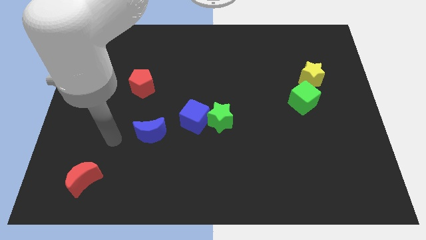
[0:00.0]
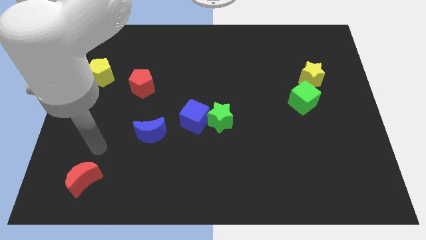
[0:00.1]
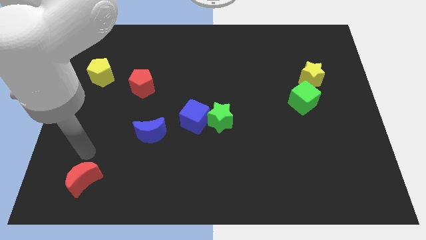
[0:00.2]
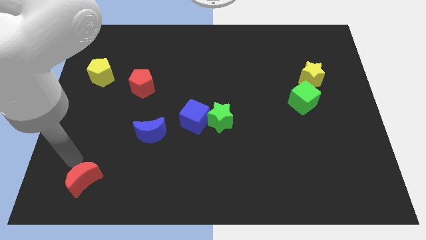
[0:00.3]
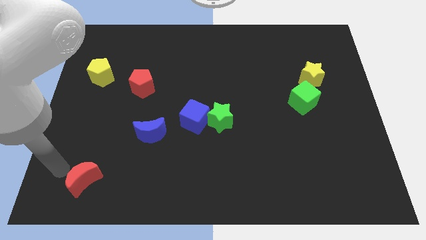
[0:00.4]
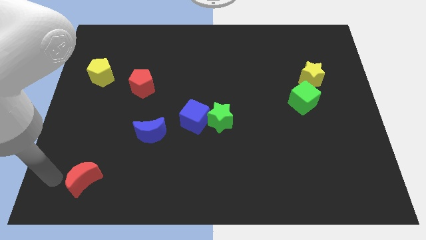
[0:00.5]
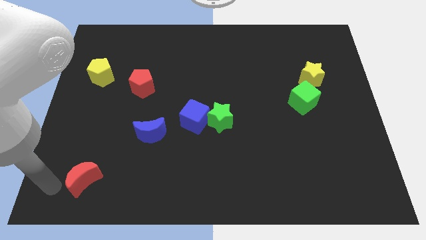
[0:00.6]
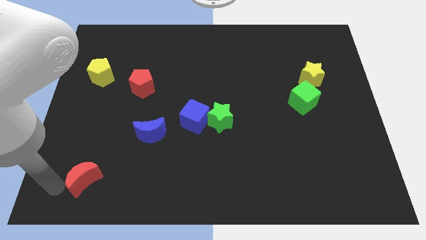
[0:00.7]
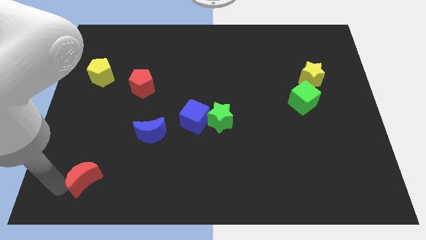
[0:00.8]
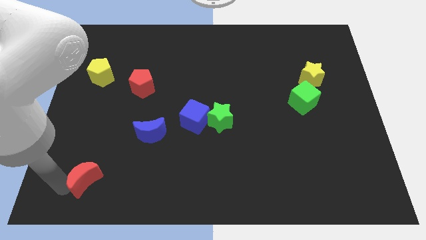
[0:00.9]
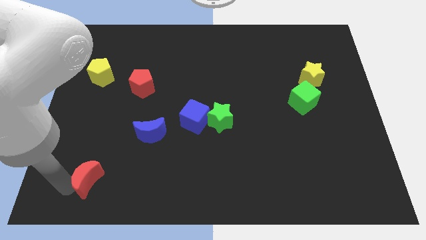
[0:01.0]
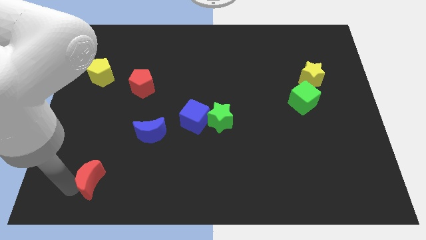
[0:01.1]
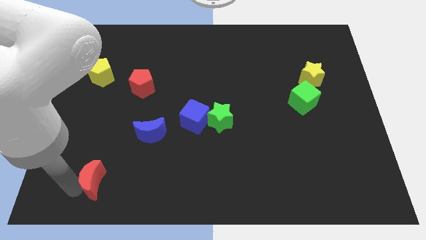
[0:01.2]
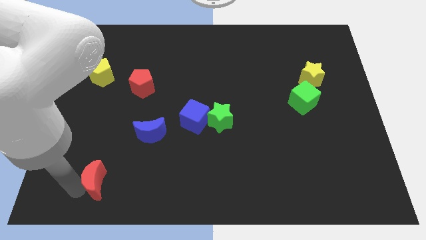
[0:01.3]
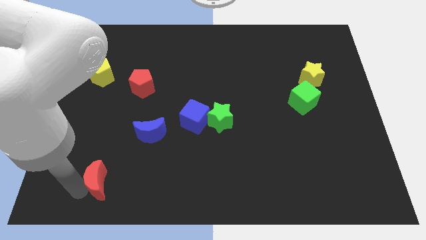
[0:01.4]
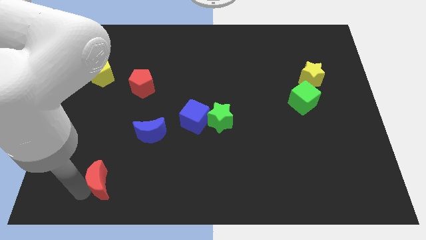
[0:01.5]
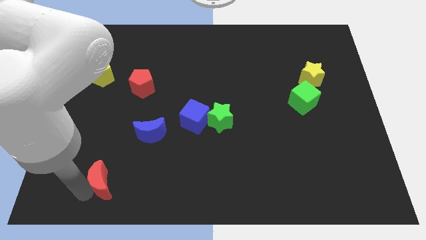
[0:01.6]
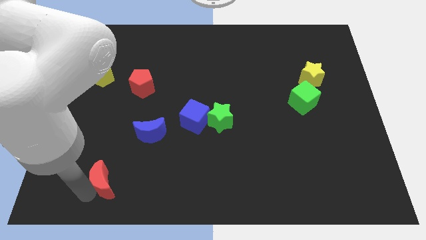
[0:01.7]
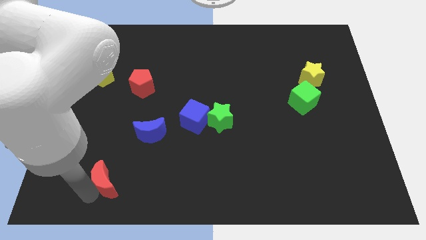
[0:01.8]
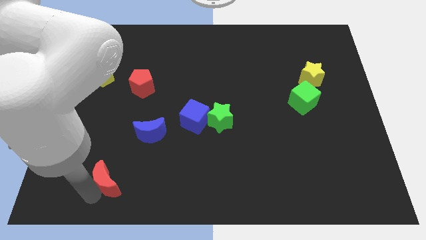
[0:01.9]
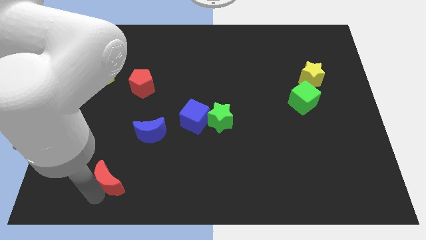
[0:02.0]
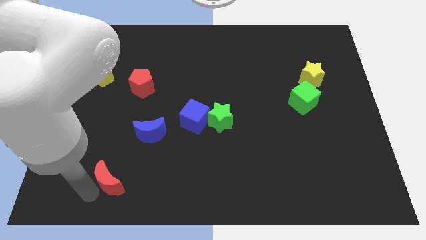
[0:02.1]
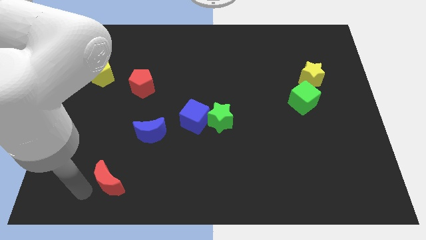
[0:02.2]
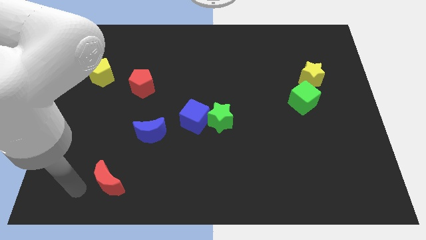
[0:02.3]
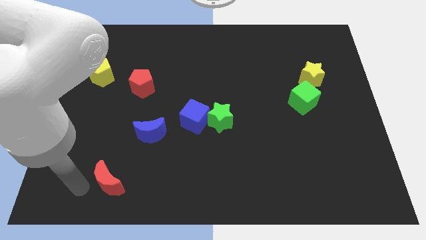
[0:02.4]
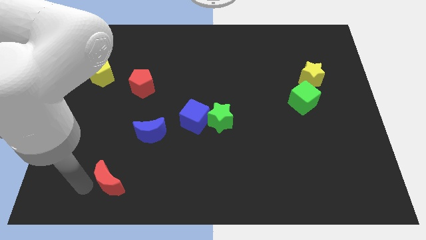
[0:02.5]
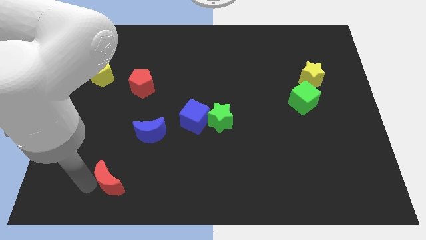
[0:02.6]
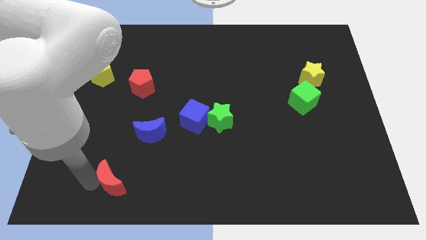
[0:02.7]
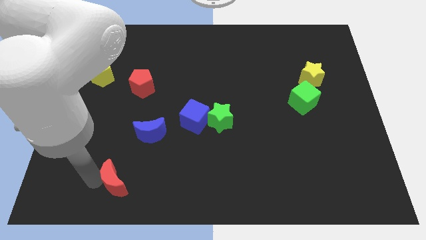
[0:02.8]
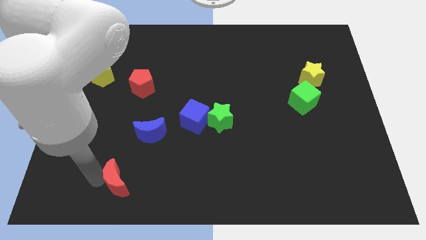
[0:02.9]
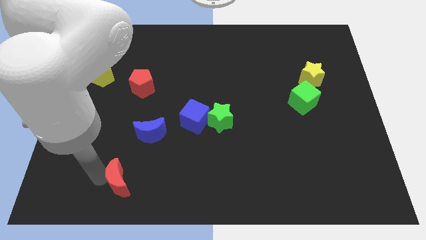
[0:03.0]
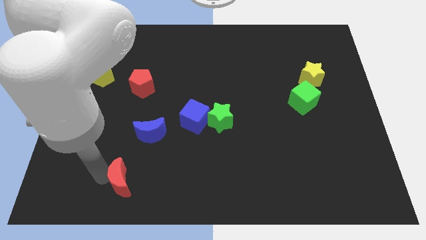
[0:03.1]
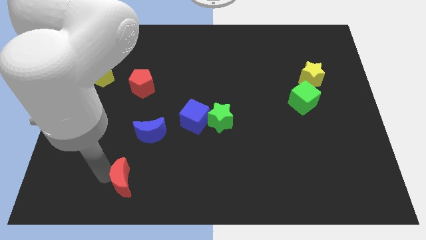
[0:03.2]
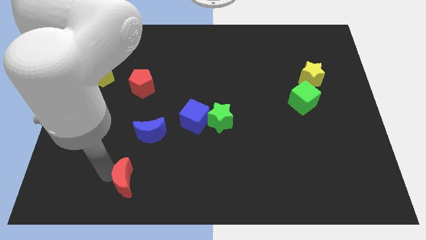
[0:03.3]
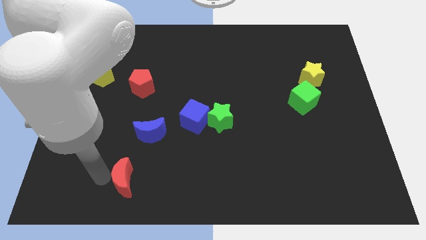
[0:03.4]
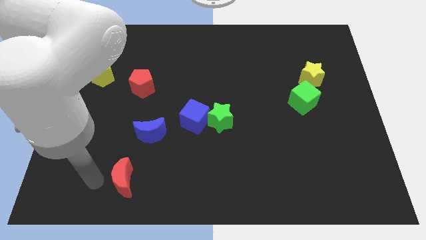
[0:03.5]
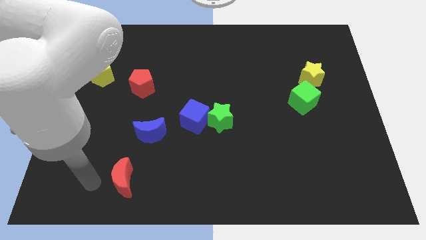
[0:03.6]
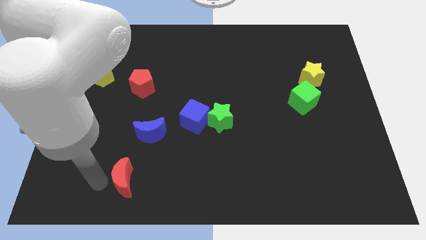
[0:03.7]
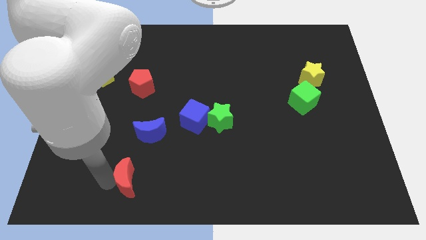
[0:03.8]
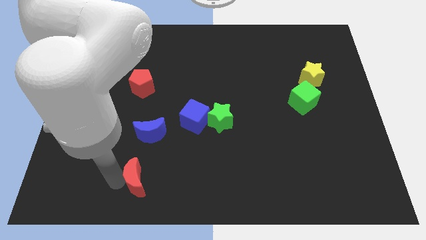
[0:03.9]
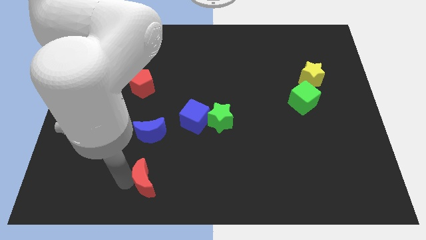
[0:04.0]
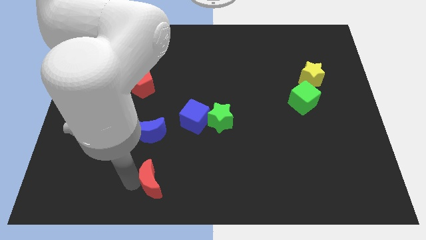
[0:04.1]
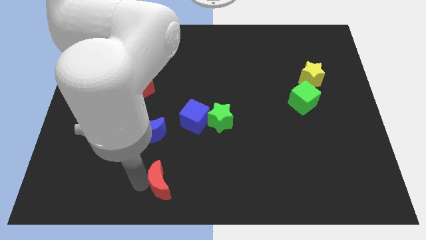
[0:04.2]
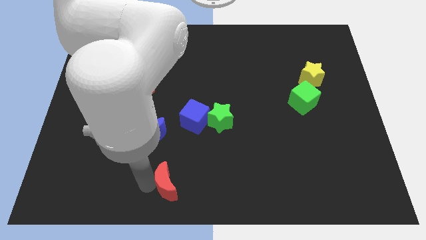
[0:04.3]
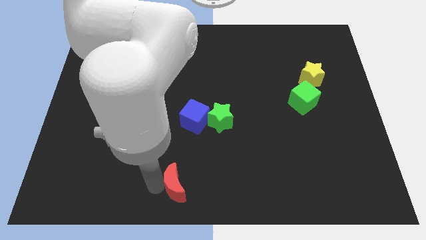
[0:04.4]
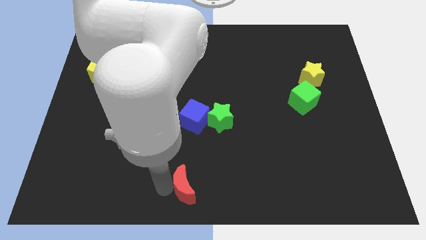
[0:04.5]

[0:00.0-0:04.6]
slide the red moon right

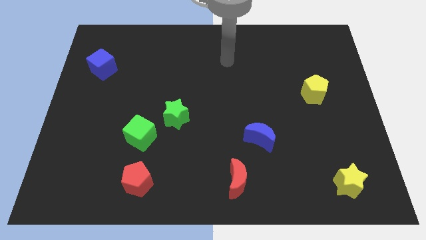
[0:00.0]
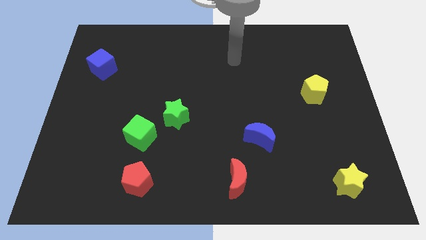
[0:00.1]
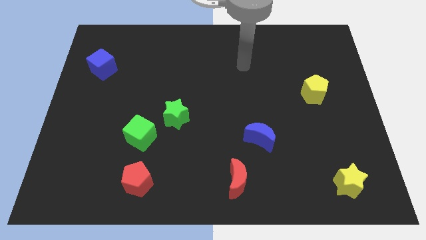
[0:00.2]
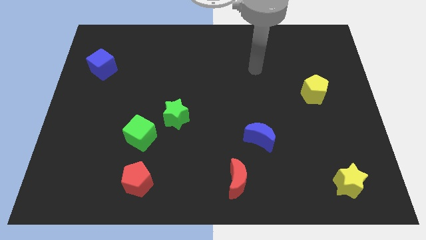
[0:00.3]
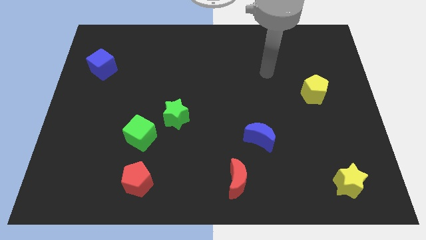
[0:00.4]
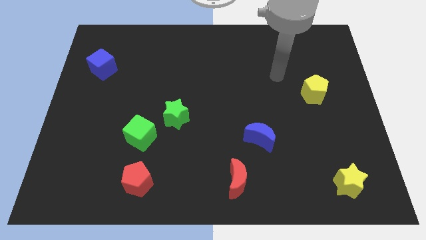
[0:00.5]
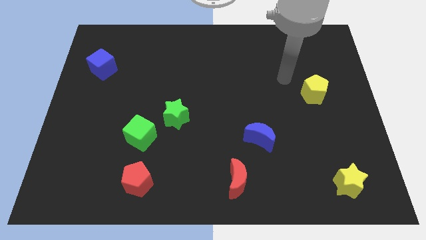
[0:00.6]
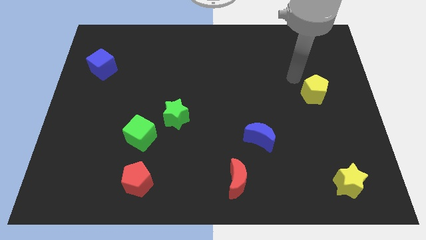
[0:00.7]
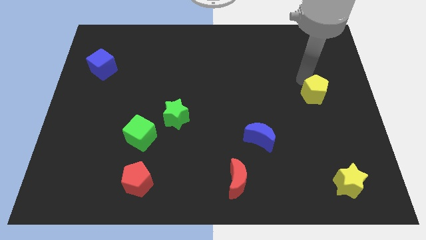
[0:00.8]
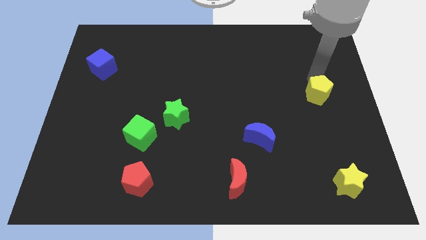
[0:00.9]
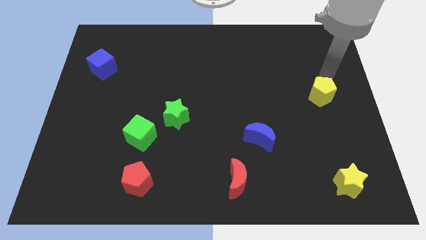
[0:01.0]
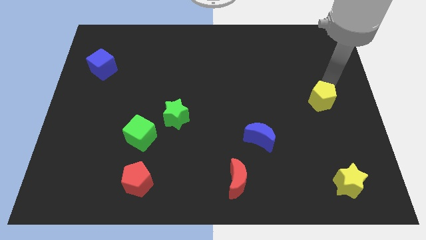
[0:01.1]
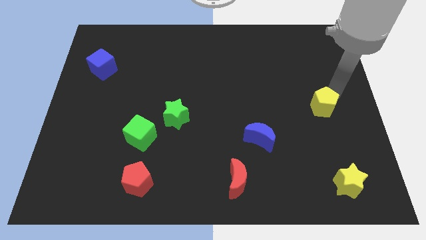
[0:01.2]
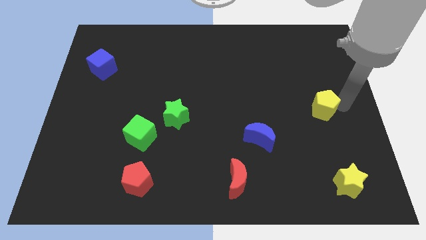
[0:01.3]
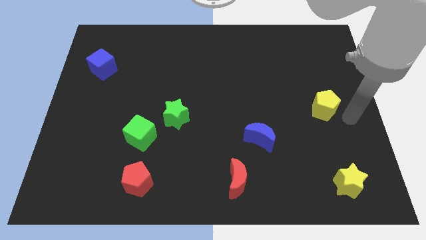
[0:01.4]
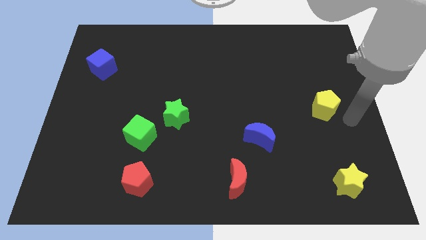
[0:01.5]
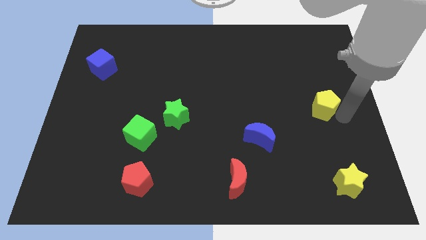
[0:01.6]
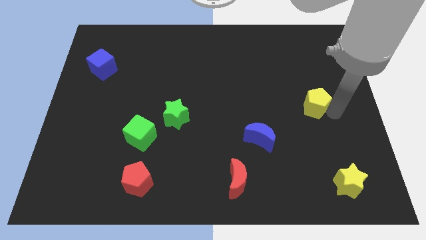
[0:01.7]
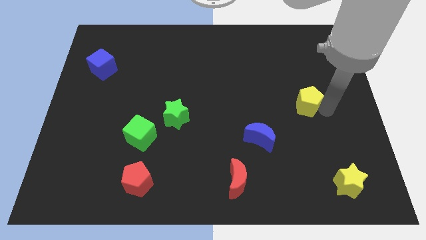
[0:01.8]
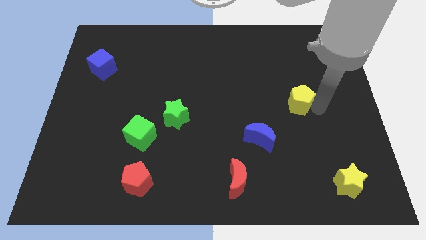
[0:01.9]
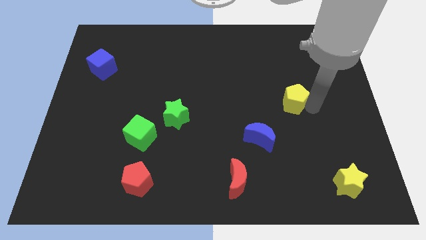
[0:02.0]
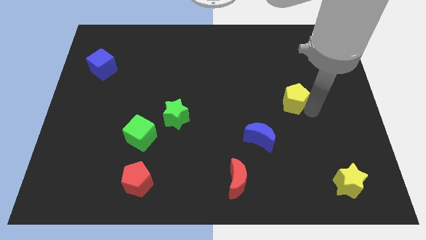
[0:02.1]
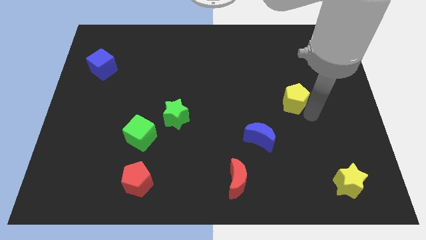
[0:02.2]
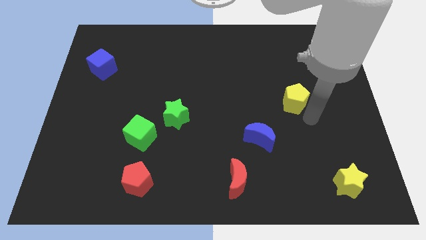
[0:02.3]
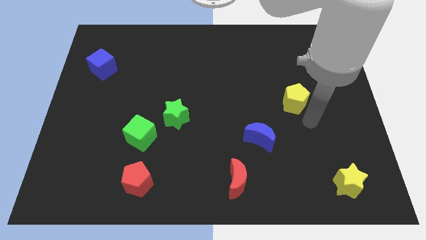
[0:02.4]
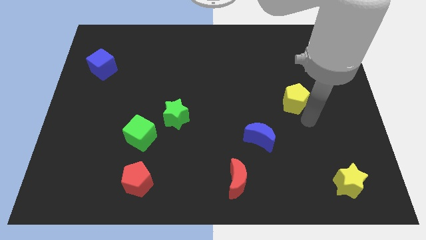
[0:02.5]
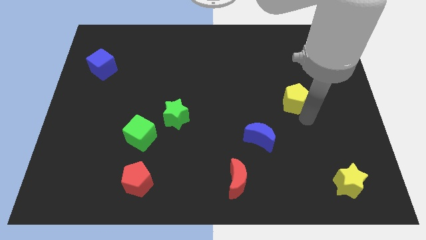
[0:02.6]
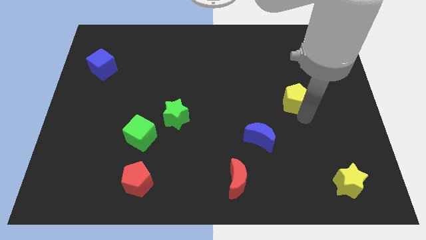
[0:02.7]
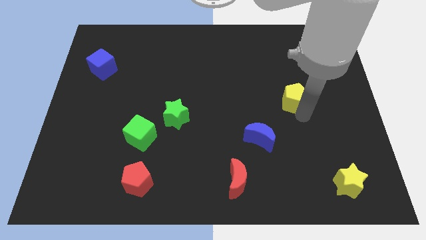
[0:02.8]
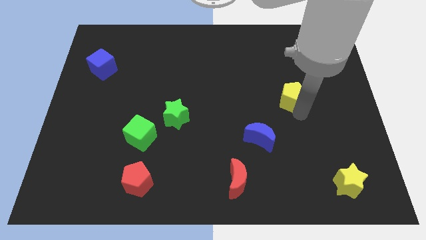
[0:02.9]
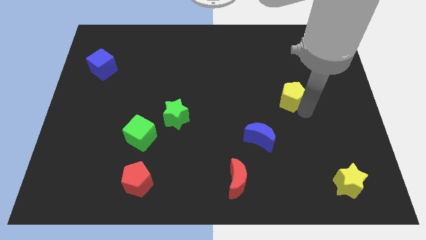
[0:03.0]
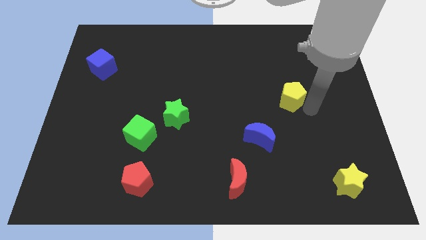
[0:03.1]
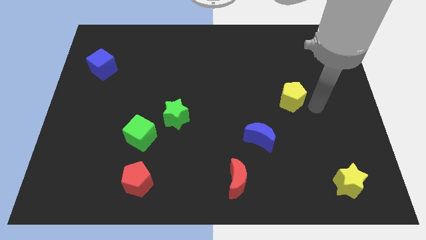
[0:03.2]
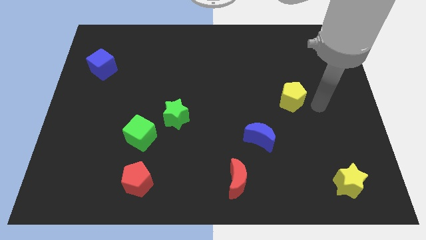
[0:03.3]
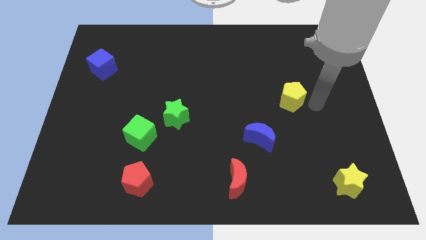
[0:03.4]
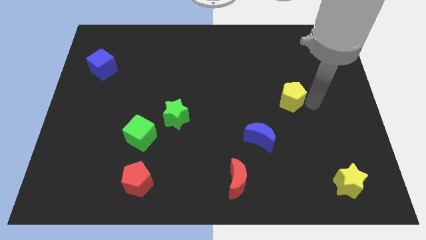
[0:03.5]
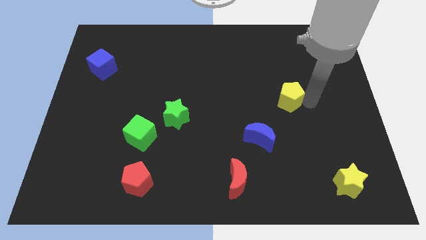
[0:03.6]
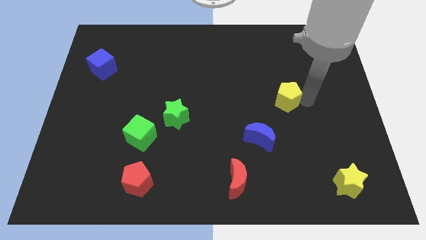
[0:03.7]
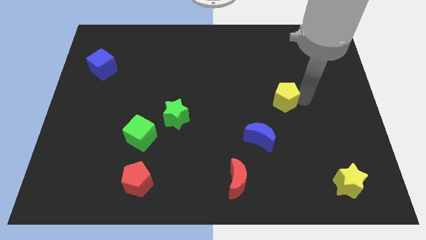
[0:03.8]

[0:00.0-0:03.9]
slide the yellow pentagon a little to the left
